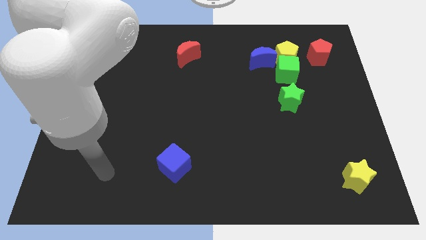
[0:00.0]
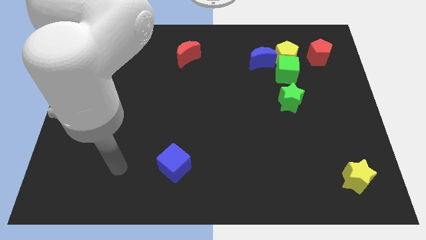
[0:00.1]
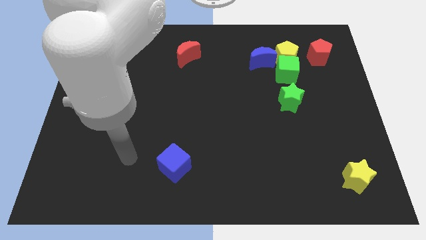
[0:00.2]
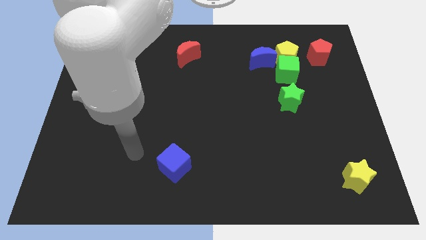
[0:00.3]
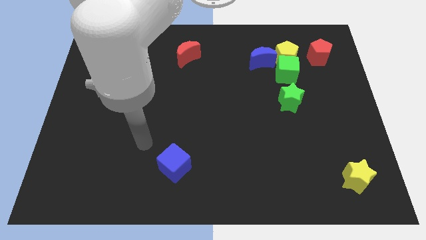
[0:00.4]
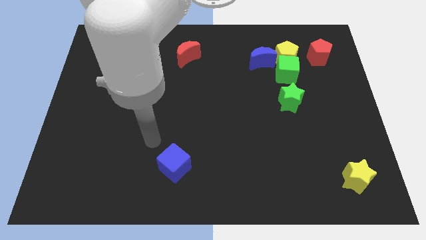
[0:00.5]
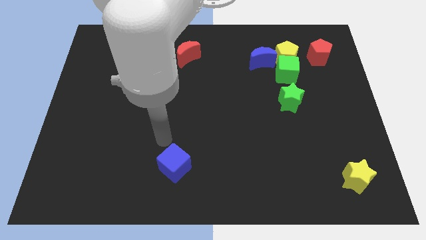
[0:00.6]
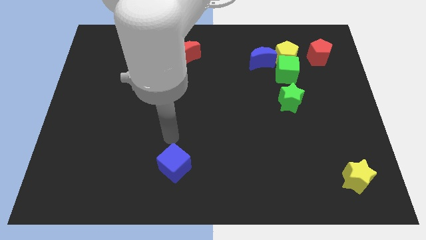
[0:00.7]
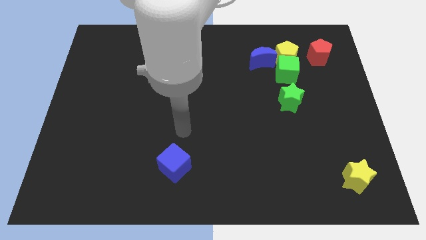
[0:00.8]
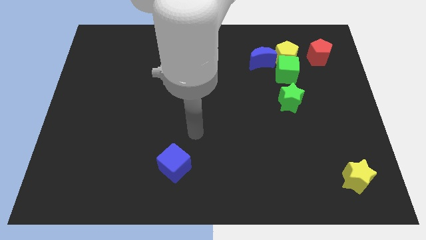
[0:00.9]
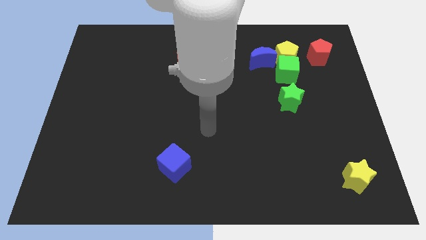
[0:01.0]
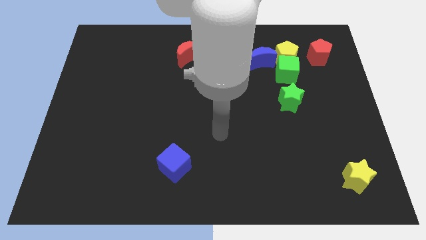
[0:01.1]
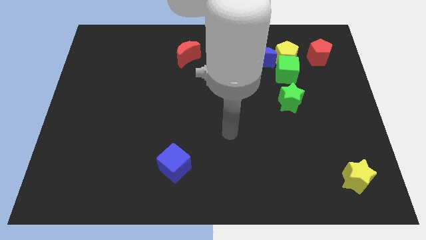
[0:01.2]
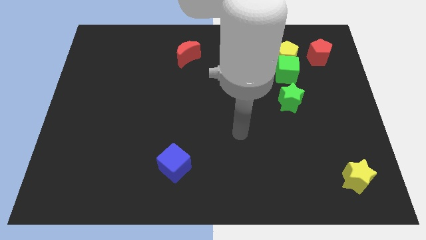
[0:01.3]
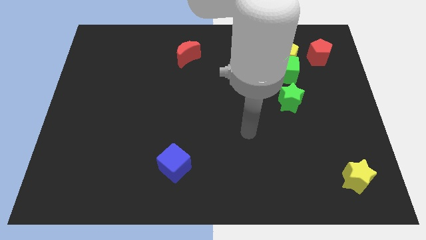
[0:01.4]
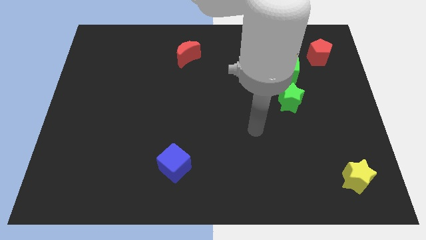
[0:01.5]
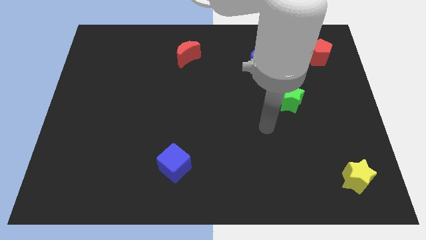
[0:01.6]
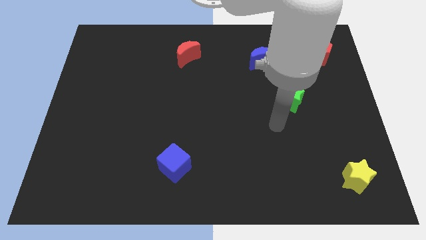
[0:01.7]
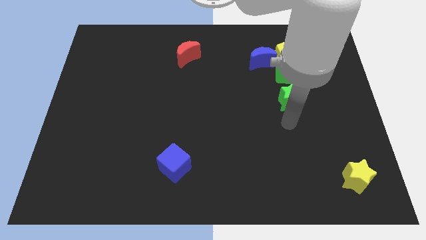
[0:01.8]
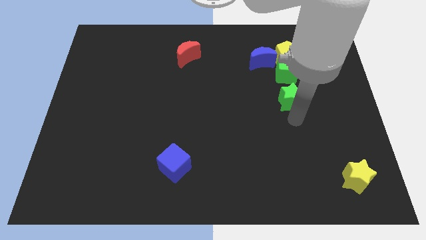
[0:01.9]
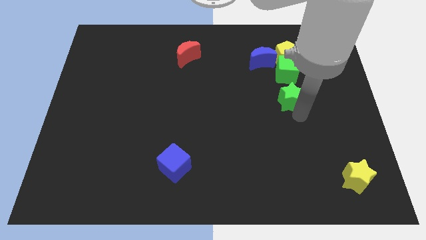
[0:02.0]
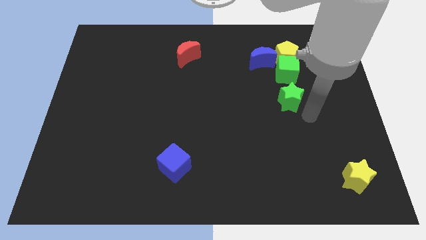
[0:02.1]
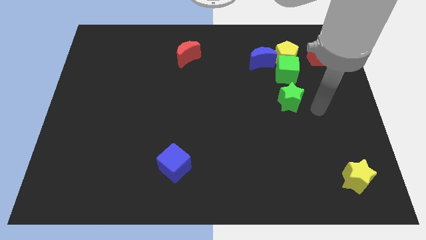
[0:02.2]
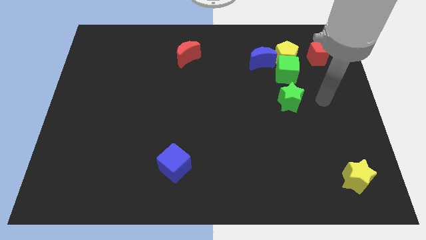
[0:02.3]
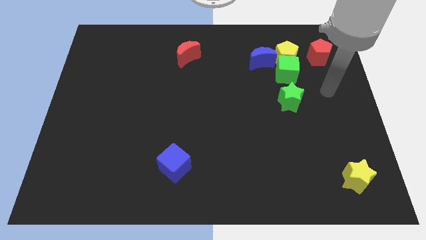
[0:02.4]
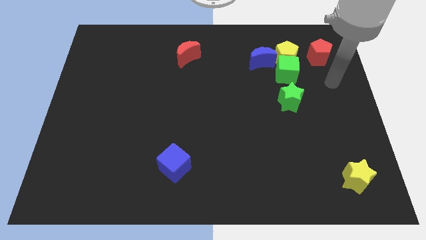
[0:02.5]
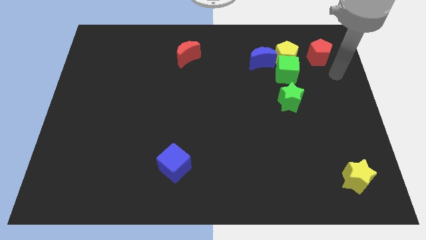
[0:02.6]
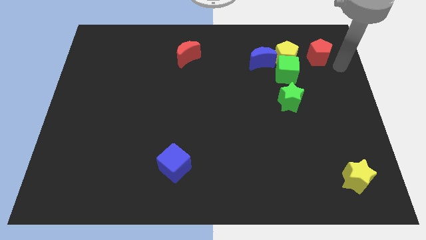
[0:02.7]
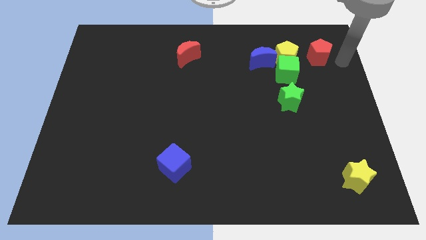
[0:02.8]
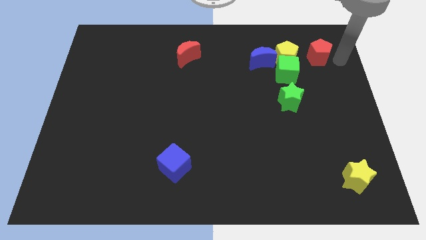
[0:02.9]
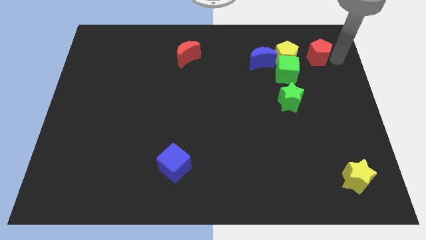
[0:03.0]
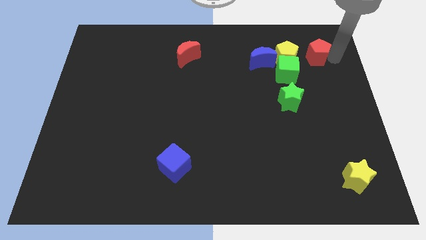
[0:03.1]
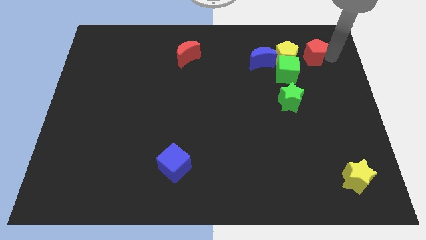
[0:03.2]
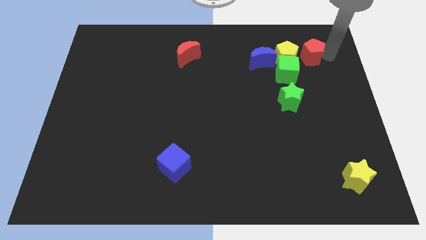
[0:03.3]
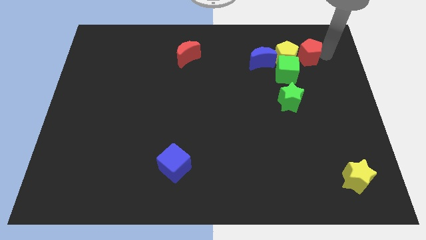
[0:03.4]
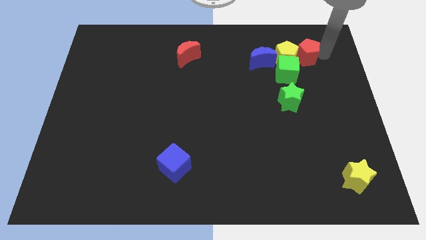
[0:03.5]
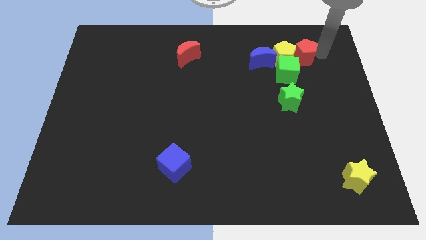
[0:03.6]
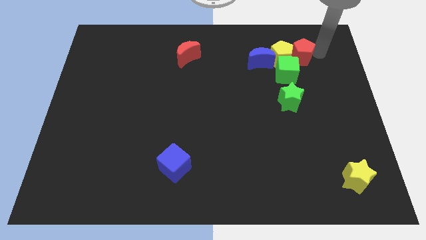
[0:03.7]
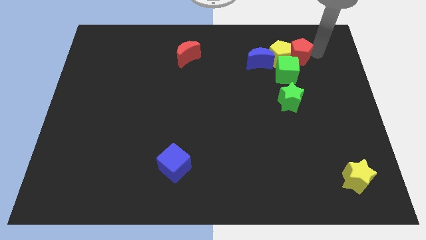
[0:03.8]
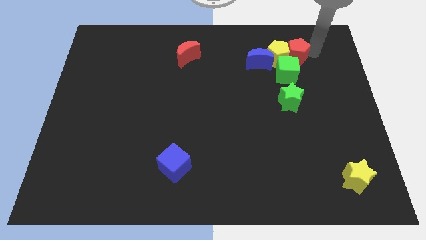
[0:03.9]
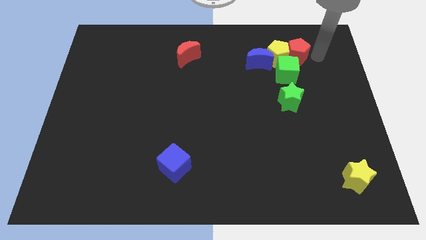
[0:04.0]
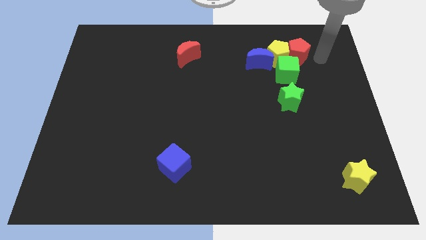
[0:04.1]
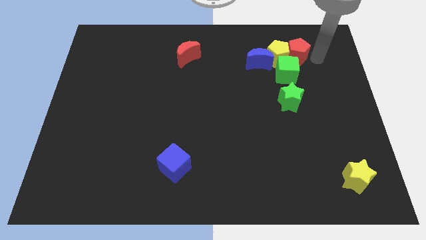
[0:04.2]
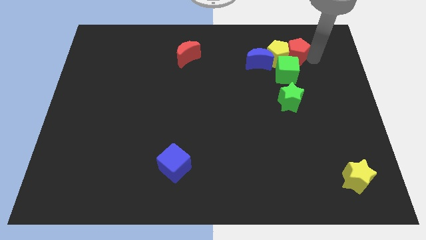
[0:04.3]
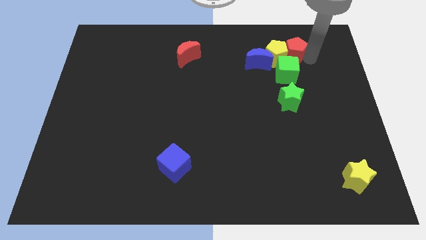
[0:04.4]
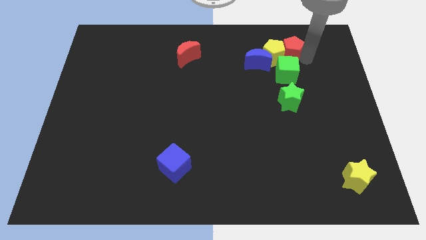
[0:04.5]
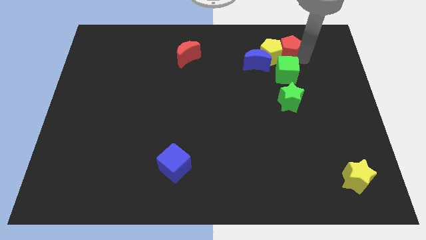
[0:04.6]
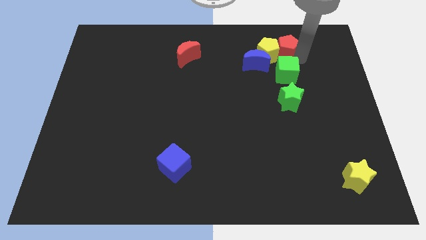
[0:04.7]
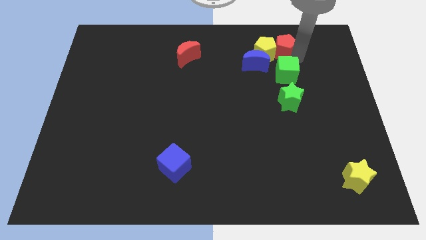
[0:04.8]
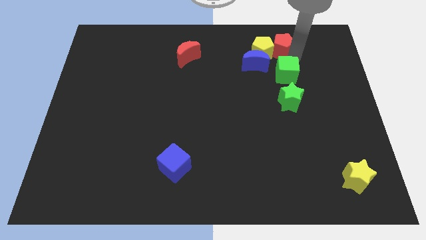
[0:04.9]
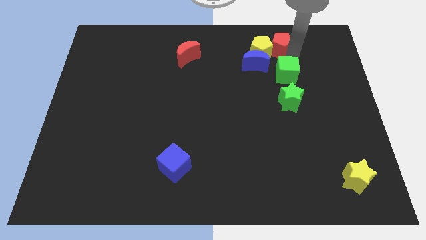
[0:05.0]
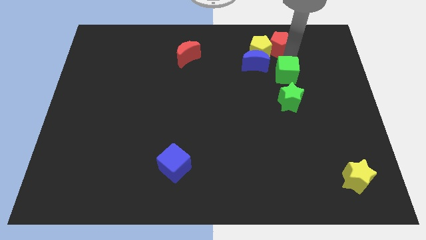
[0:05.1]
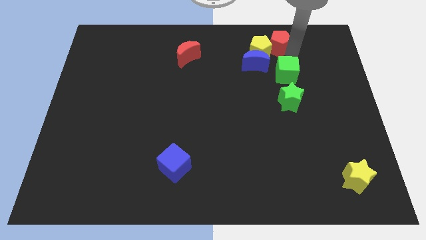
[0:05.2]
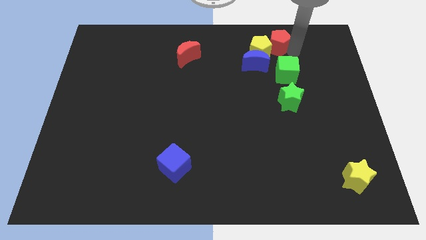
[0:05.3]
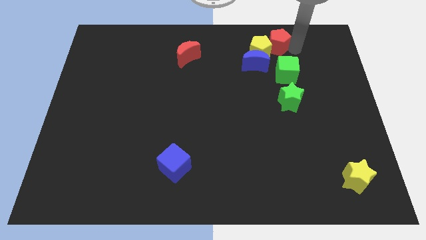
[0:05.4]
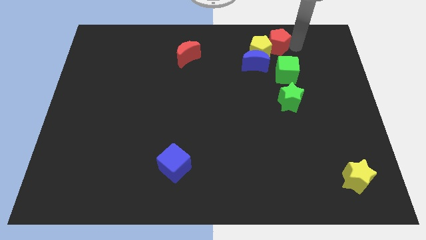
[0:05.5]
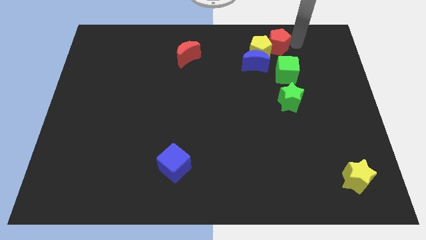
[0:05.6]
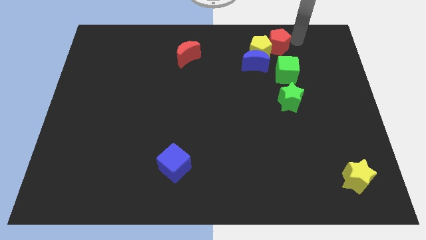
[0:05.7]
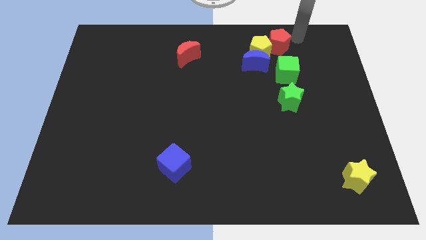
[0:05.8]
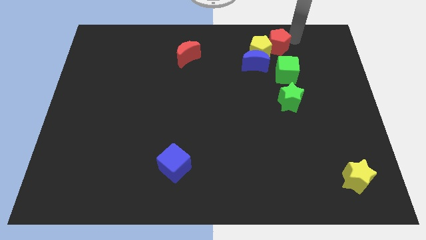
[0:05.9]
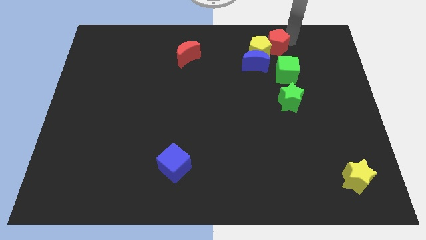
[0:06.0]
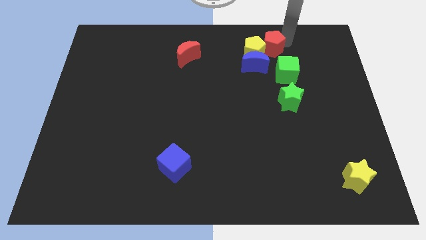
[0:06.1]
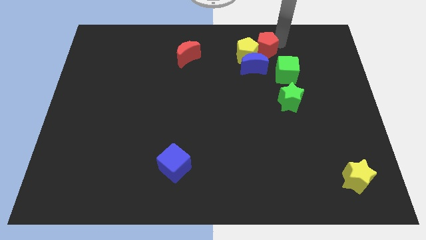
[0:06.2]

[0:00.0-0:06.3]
put the red pentagon to the top left of the green cube

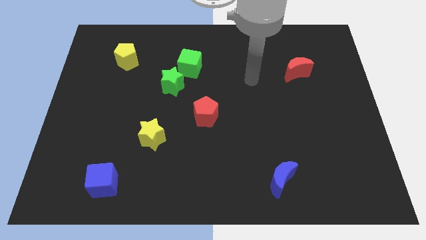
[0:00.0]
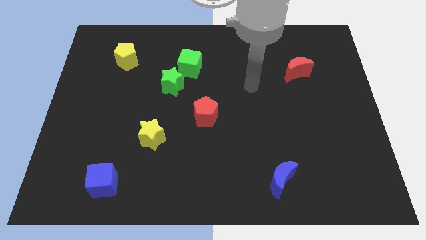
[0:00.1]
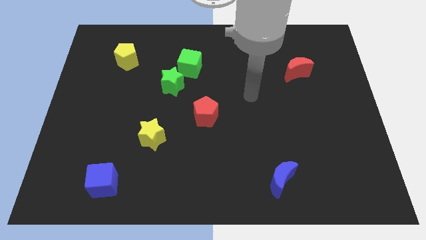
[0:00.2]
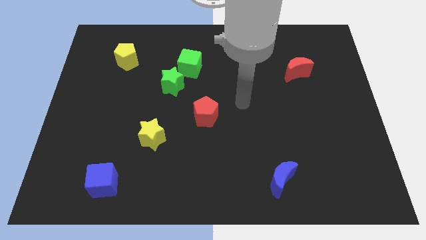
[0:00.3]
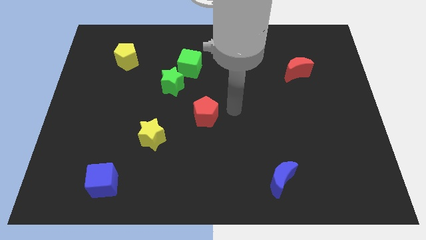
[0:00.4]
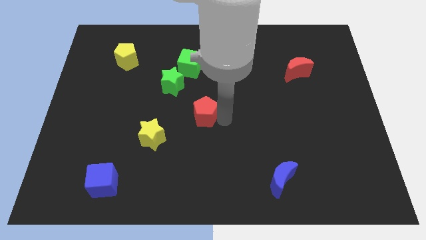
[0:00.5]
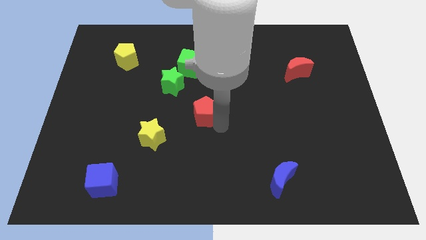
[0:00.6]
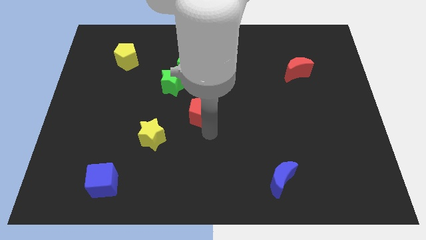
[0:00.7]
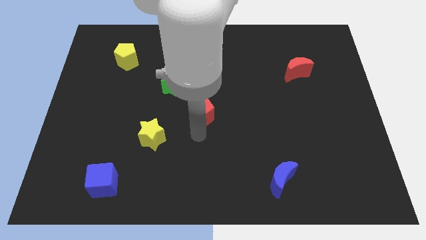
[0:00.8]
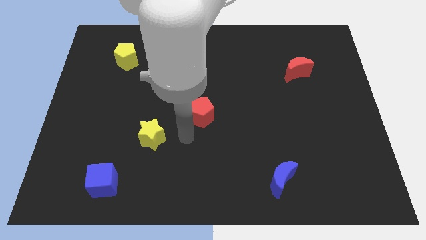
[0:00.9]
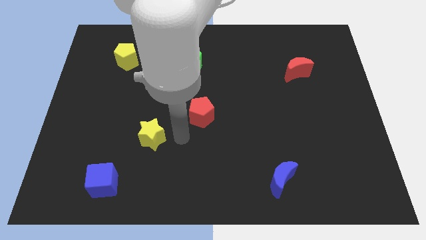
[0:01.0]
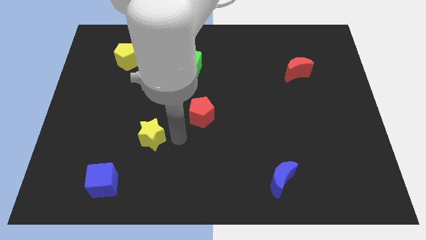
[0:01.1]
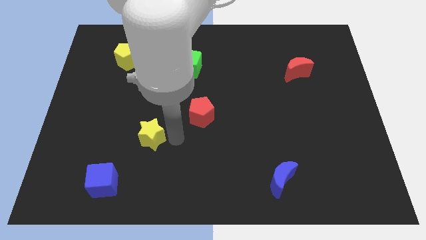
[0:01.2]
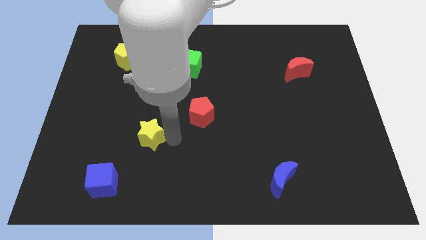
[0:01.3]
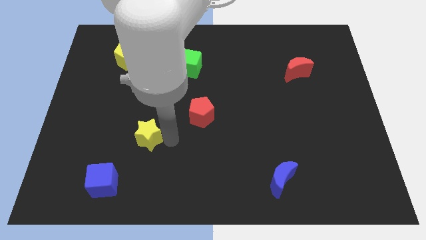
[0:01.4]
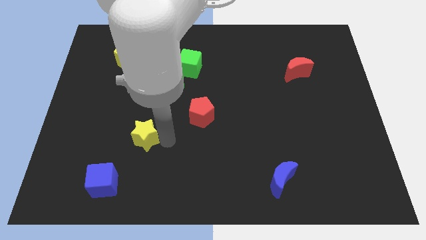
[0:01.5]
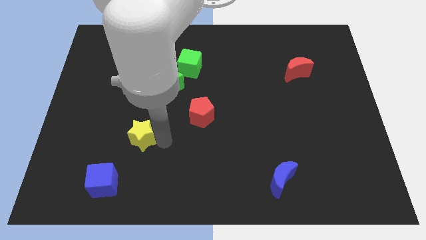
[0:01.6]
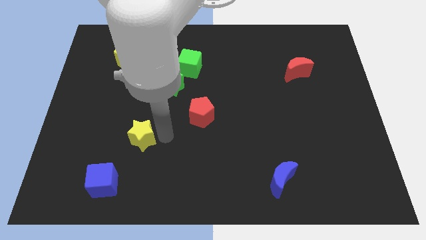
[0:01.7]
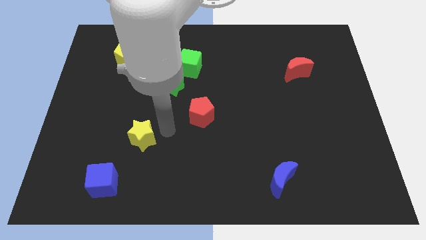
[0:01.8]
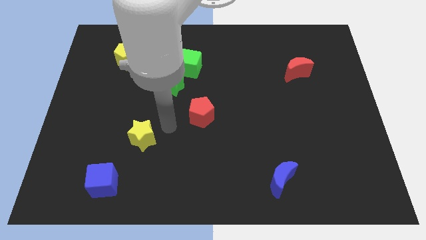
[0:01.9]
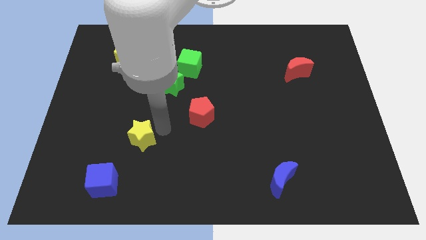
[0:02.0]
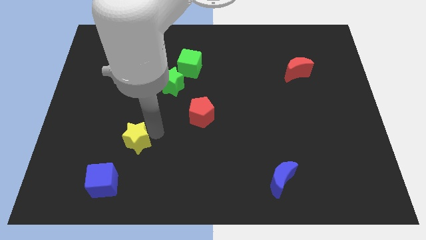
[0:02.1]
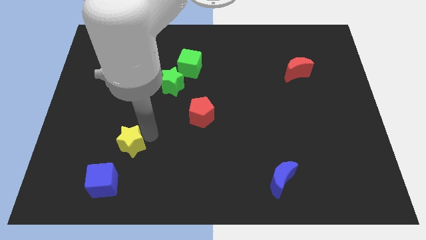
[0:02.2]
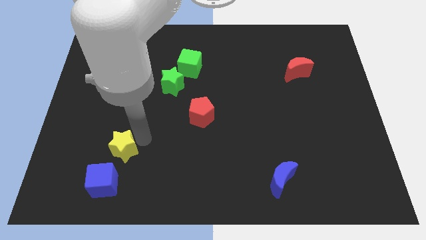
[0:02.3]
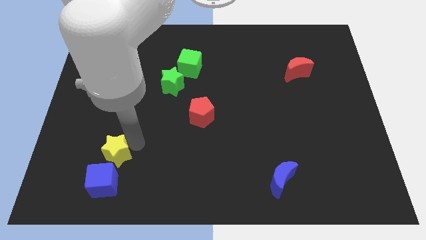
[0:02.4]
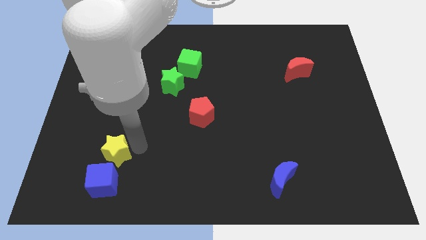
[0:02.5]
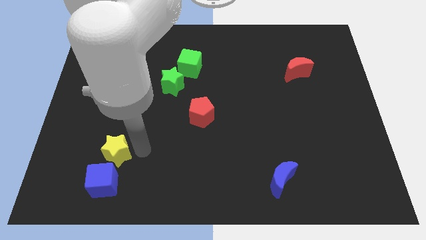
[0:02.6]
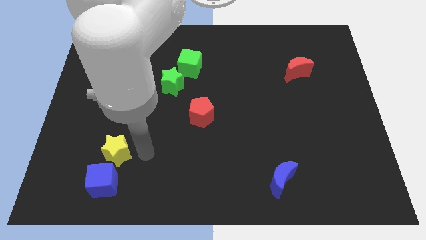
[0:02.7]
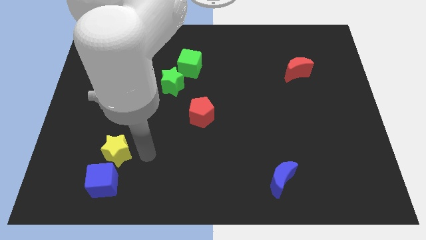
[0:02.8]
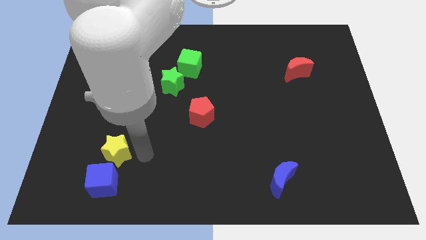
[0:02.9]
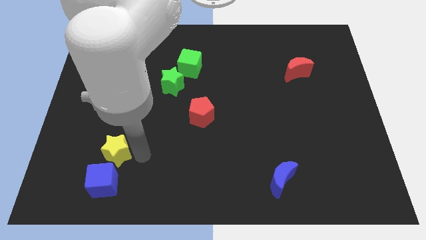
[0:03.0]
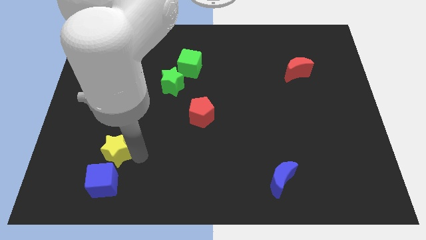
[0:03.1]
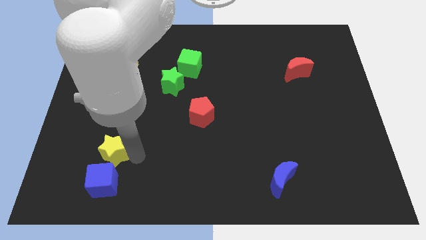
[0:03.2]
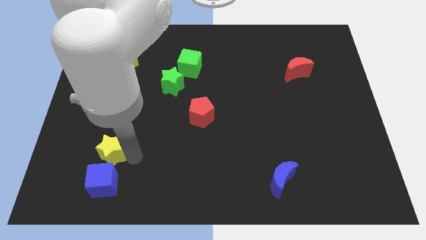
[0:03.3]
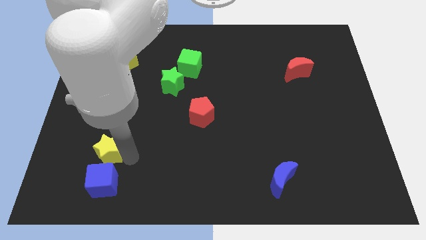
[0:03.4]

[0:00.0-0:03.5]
put the yellow star to the top left of the blue cube
